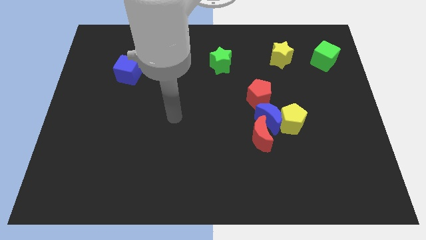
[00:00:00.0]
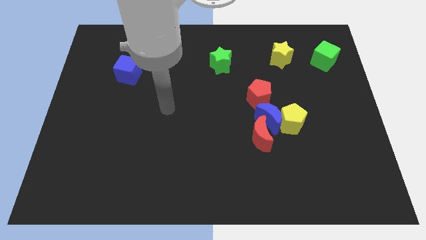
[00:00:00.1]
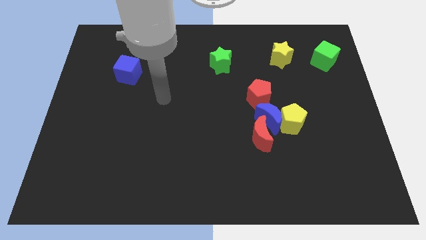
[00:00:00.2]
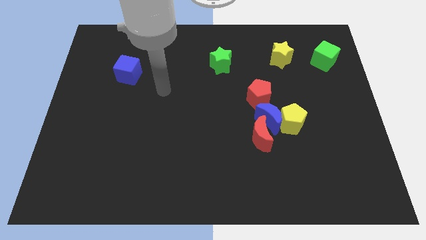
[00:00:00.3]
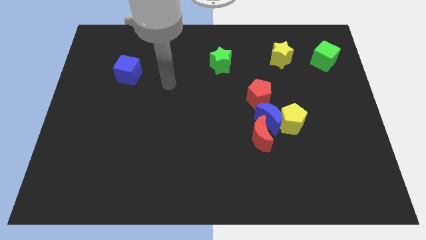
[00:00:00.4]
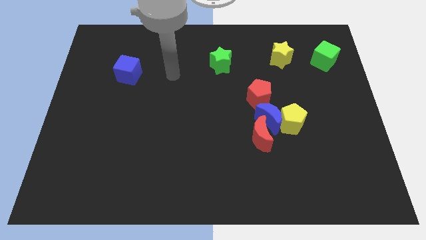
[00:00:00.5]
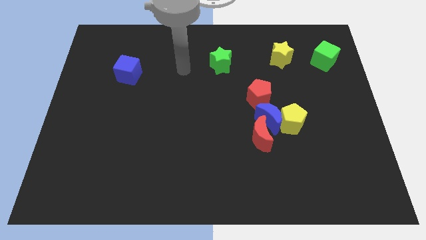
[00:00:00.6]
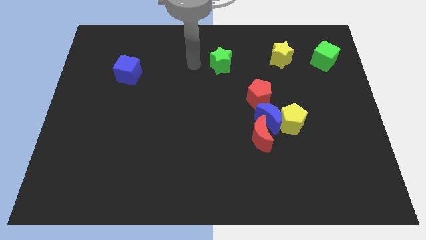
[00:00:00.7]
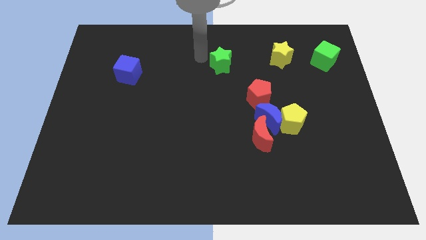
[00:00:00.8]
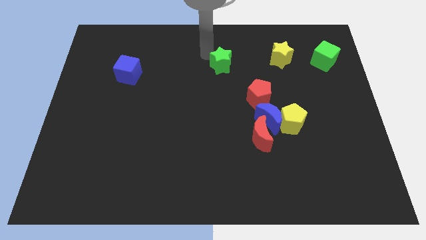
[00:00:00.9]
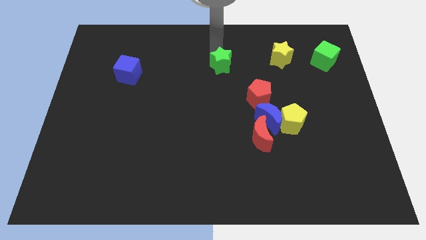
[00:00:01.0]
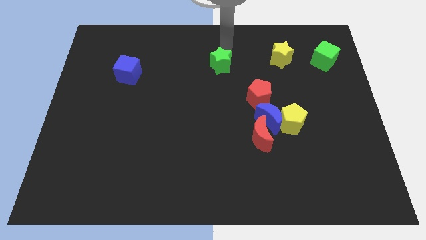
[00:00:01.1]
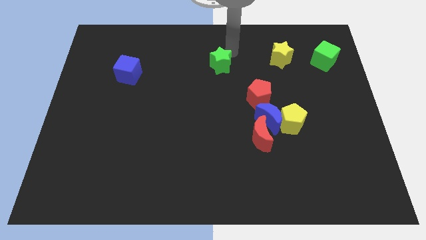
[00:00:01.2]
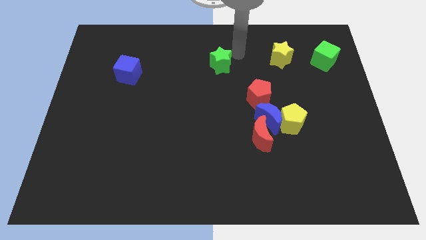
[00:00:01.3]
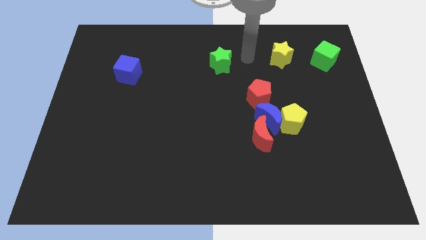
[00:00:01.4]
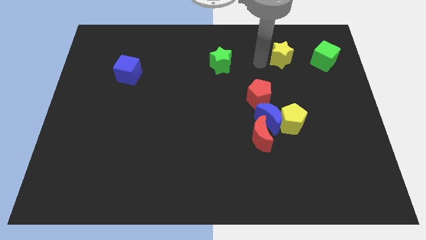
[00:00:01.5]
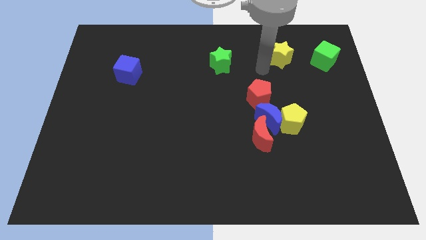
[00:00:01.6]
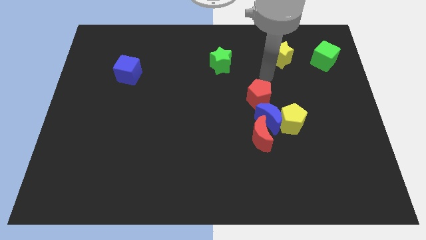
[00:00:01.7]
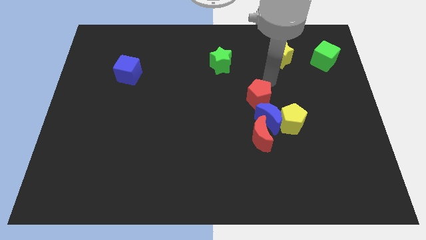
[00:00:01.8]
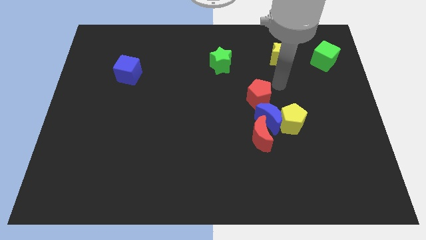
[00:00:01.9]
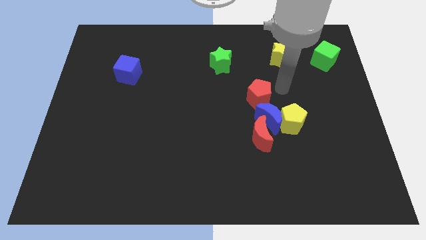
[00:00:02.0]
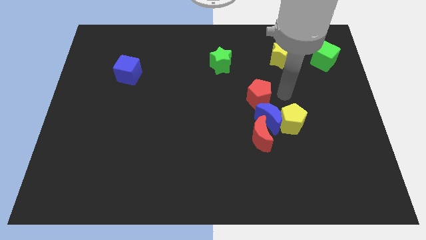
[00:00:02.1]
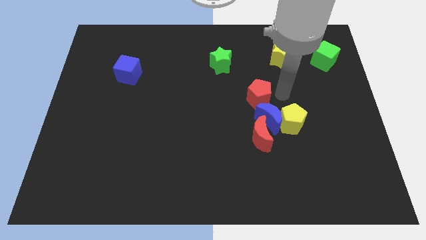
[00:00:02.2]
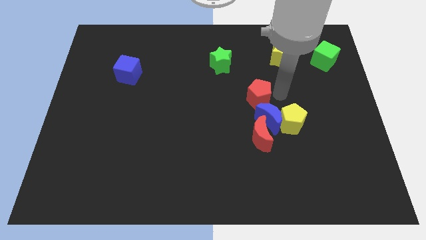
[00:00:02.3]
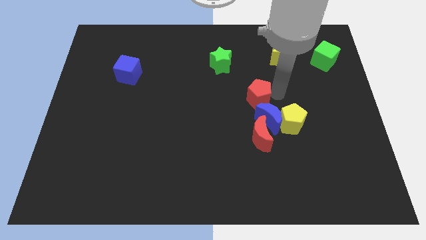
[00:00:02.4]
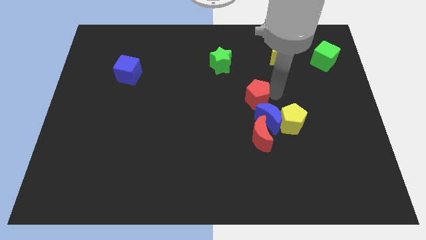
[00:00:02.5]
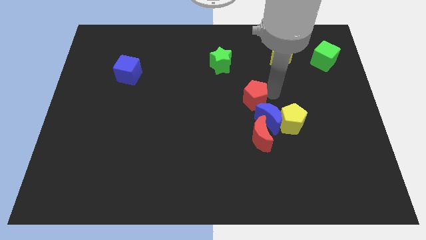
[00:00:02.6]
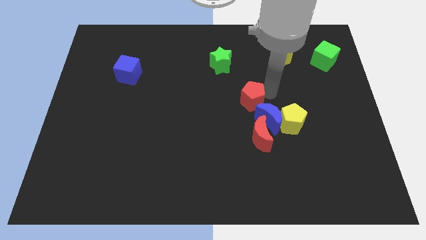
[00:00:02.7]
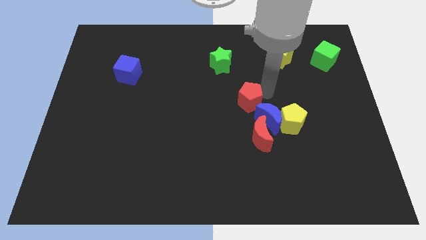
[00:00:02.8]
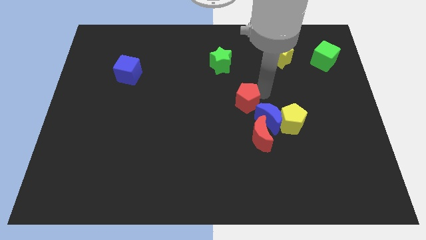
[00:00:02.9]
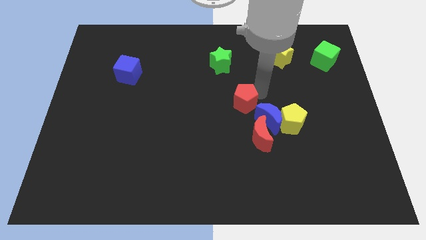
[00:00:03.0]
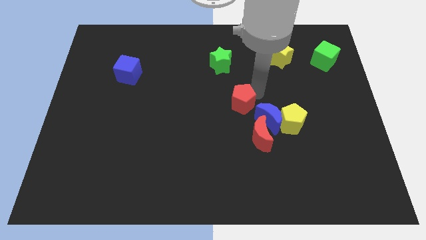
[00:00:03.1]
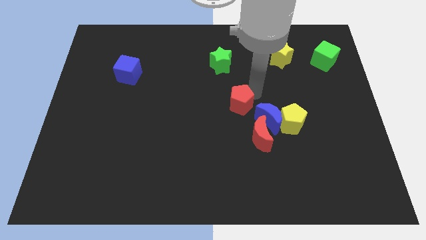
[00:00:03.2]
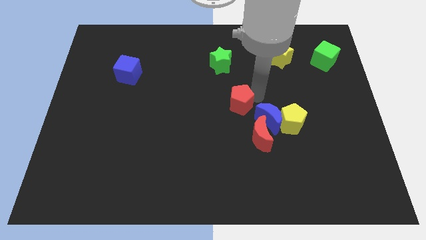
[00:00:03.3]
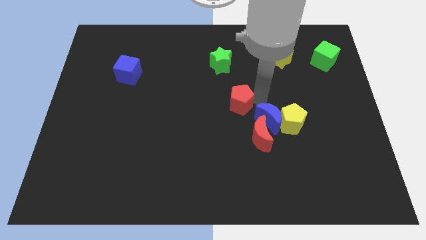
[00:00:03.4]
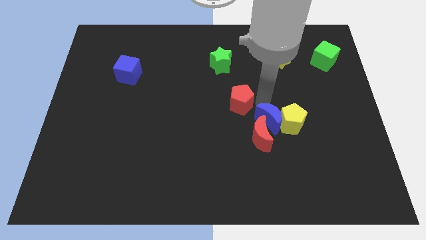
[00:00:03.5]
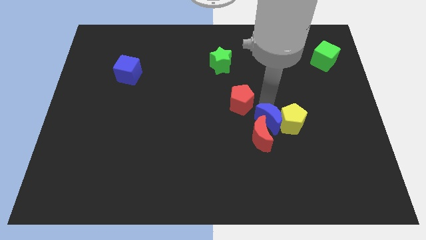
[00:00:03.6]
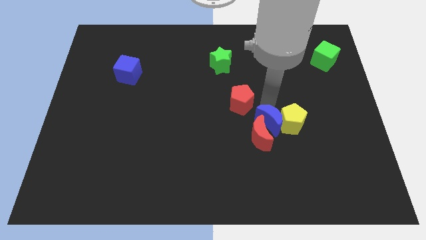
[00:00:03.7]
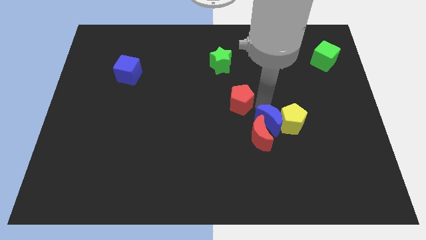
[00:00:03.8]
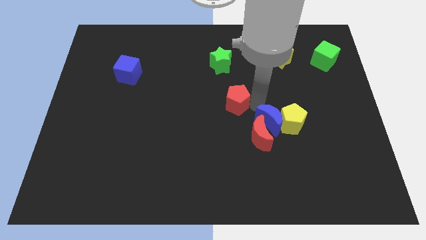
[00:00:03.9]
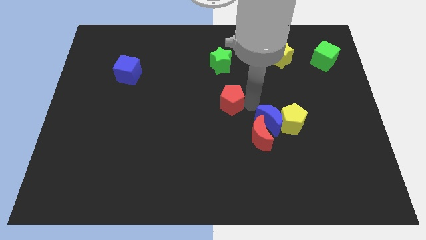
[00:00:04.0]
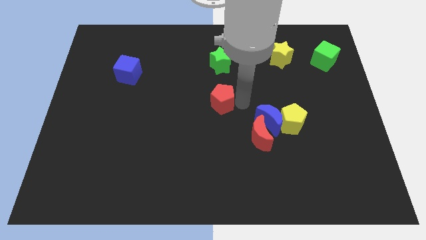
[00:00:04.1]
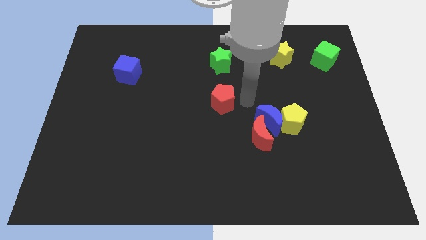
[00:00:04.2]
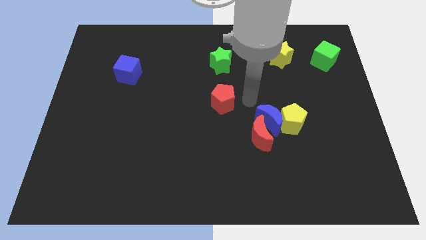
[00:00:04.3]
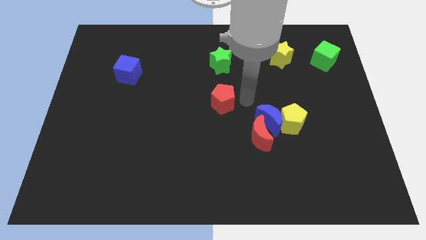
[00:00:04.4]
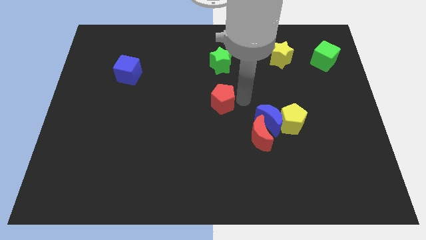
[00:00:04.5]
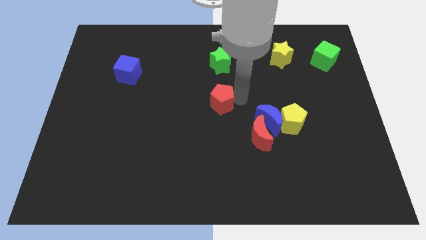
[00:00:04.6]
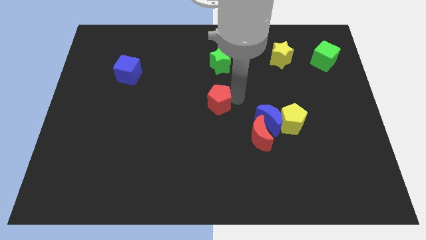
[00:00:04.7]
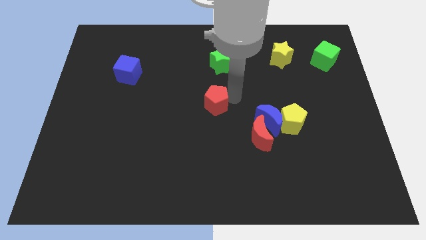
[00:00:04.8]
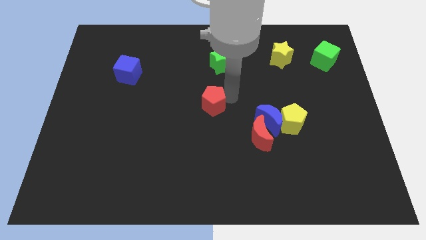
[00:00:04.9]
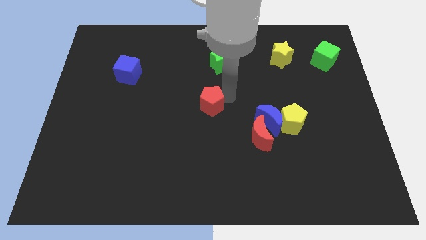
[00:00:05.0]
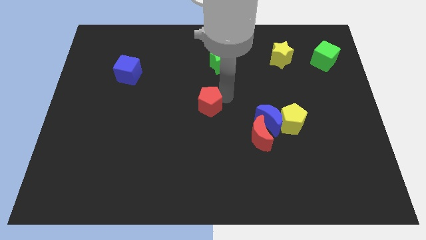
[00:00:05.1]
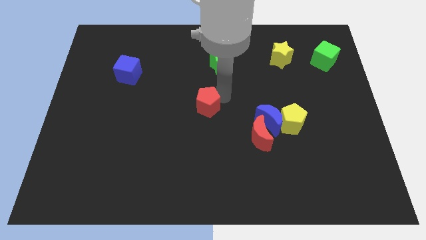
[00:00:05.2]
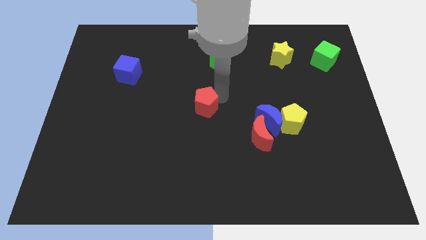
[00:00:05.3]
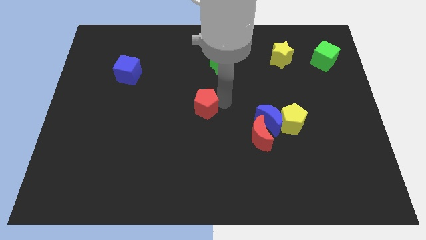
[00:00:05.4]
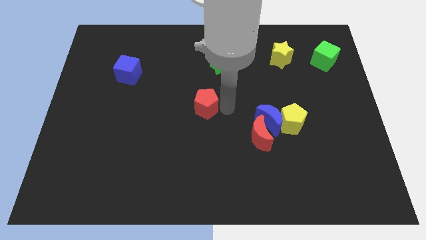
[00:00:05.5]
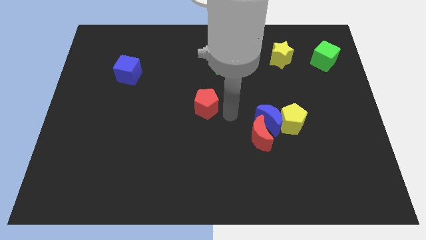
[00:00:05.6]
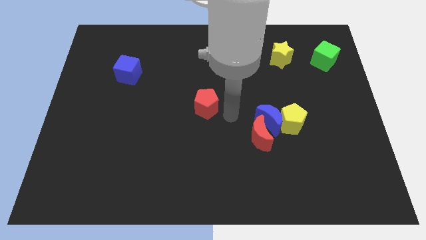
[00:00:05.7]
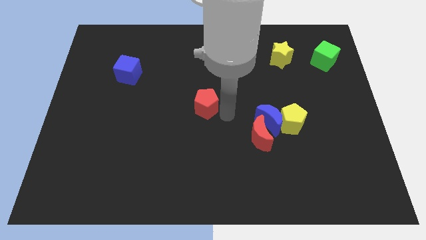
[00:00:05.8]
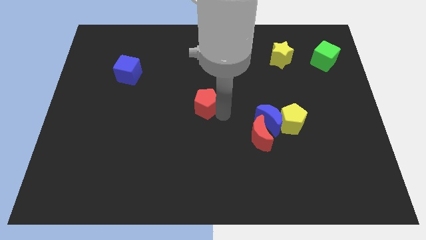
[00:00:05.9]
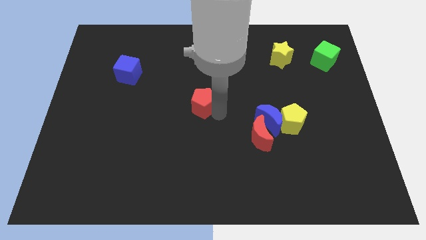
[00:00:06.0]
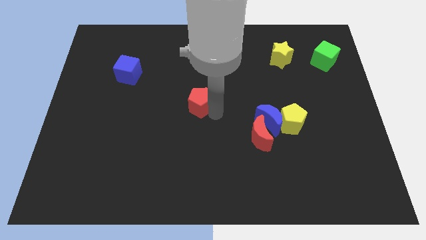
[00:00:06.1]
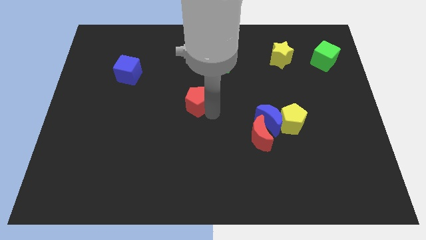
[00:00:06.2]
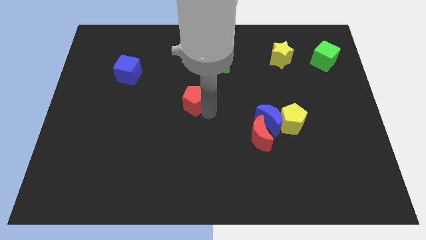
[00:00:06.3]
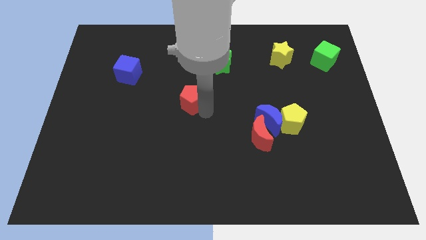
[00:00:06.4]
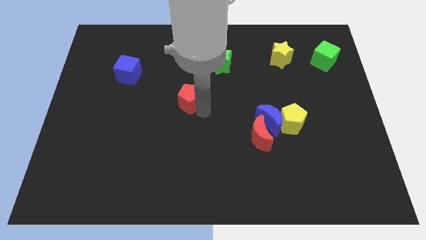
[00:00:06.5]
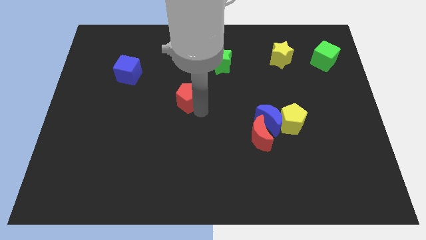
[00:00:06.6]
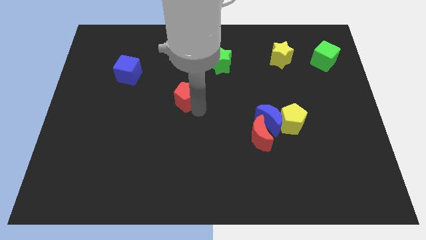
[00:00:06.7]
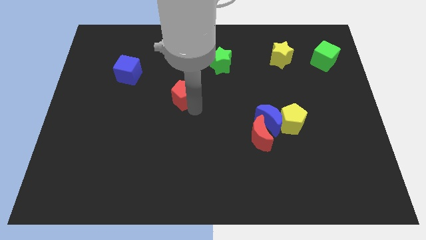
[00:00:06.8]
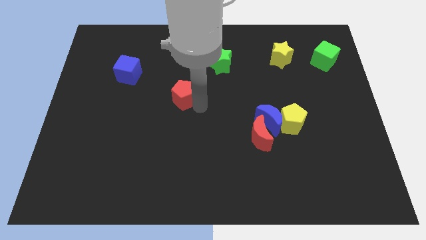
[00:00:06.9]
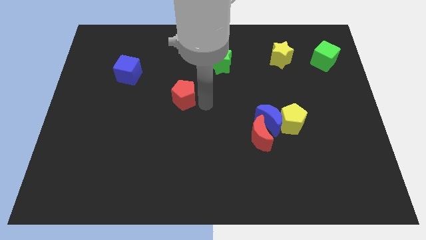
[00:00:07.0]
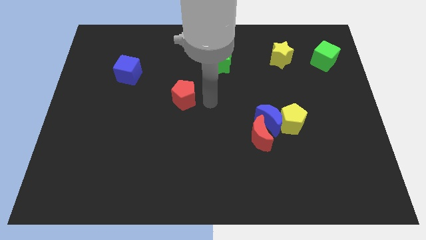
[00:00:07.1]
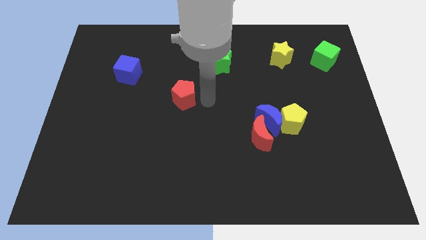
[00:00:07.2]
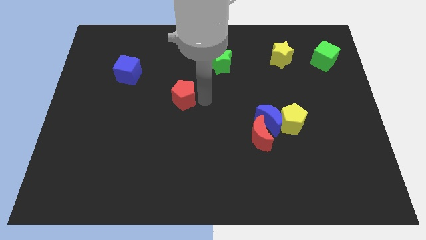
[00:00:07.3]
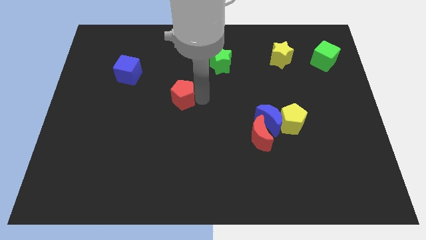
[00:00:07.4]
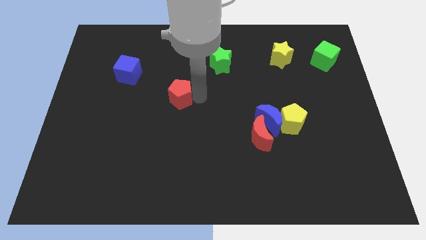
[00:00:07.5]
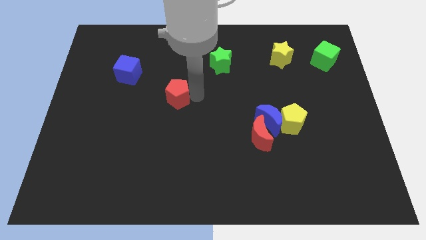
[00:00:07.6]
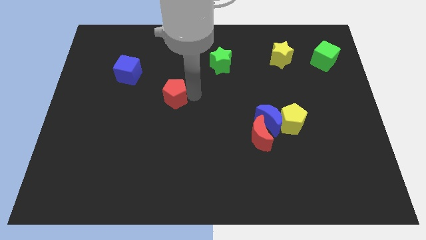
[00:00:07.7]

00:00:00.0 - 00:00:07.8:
move the red pentagon left

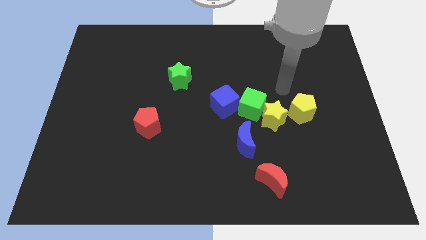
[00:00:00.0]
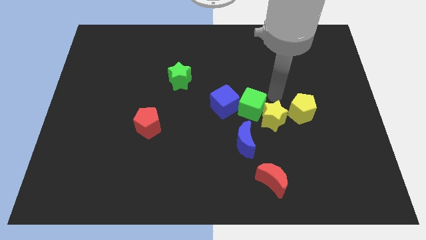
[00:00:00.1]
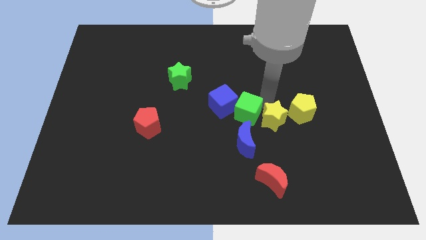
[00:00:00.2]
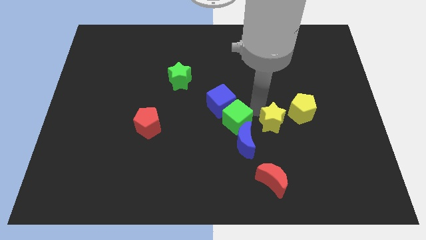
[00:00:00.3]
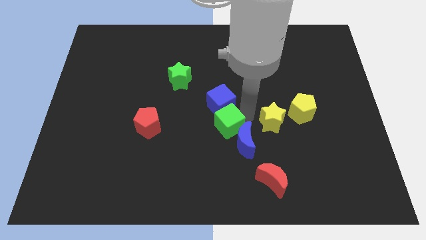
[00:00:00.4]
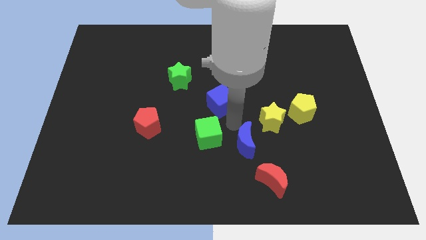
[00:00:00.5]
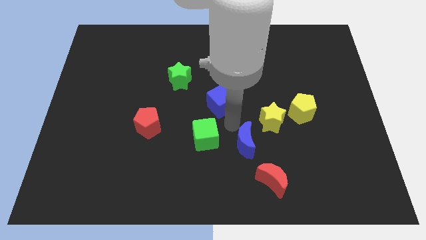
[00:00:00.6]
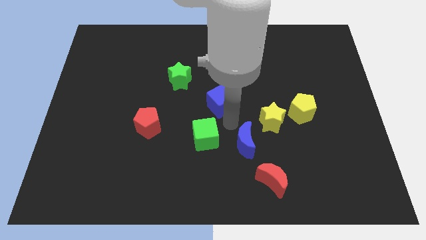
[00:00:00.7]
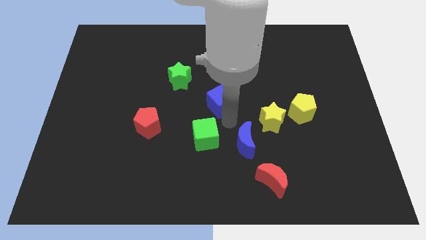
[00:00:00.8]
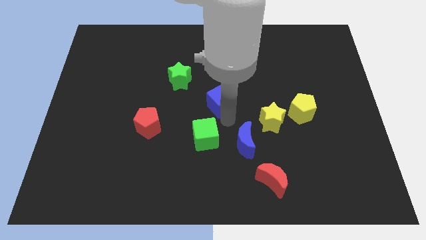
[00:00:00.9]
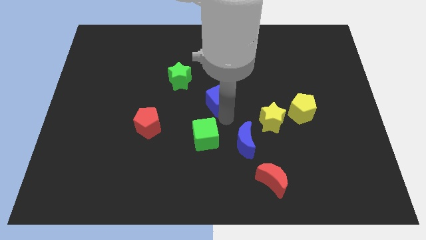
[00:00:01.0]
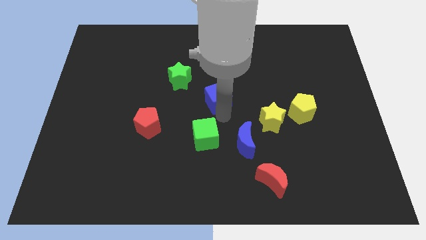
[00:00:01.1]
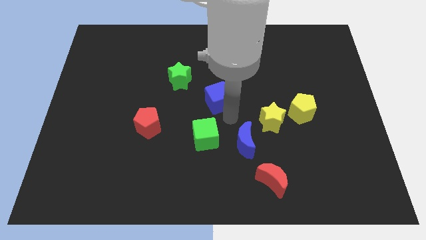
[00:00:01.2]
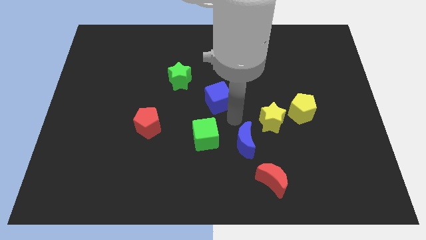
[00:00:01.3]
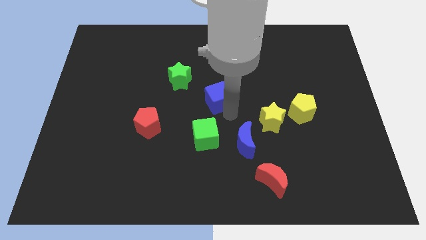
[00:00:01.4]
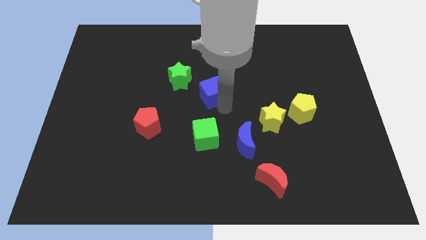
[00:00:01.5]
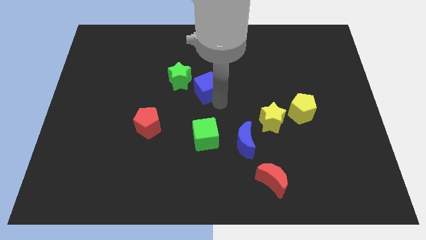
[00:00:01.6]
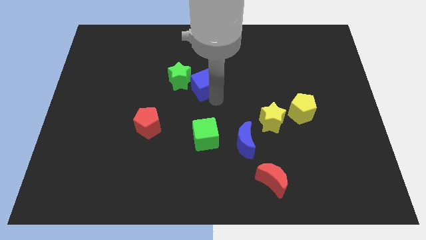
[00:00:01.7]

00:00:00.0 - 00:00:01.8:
move the blue cube slightly upwards and left
